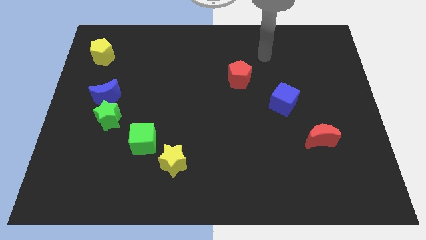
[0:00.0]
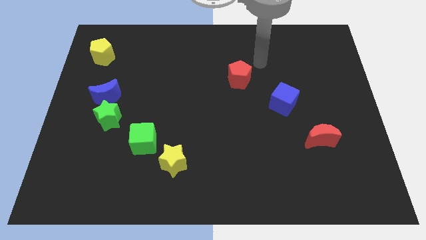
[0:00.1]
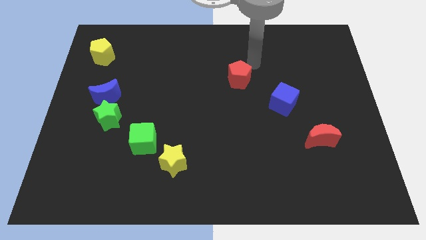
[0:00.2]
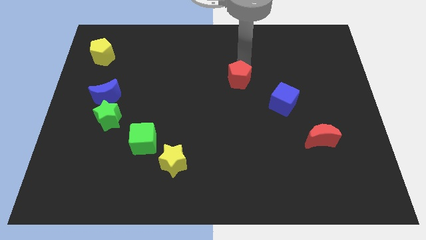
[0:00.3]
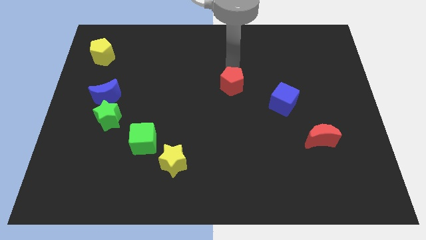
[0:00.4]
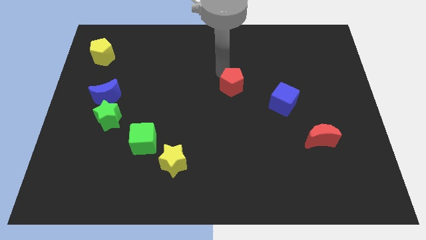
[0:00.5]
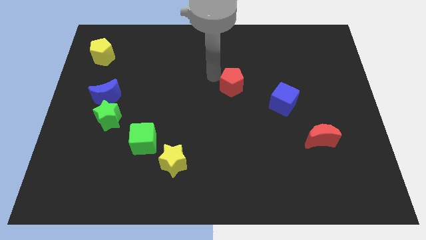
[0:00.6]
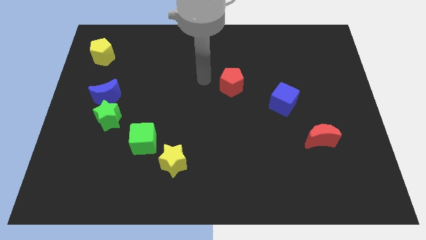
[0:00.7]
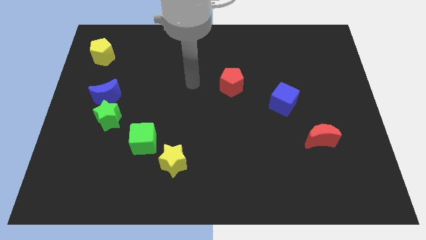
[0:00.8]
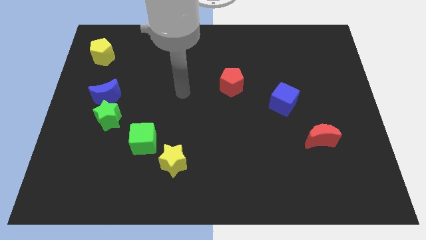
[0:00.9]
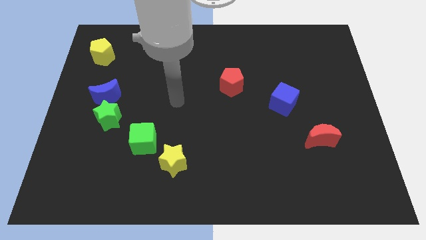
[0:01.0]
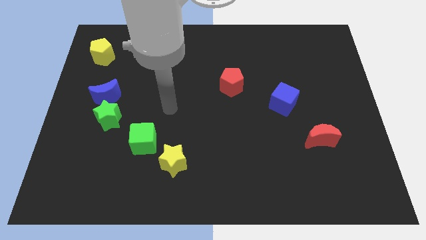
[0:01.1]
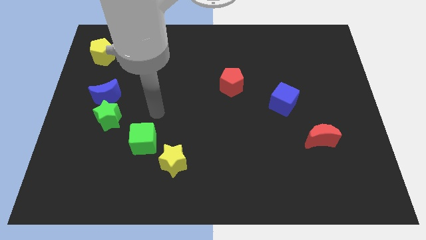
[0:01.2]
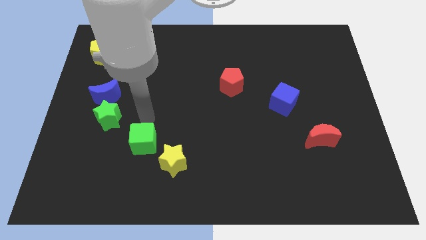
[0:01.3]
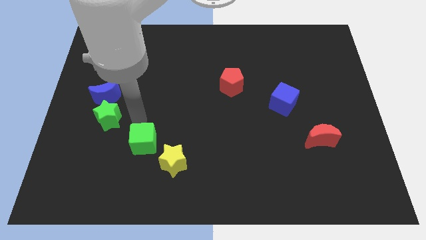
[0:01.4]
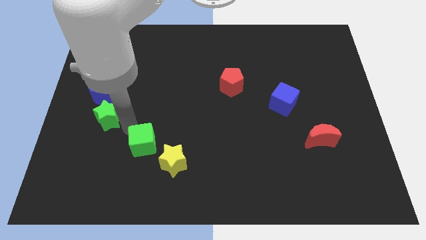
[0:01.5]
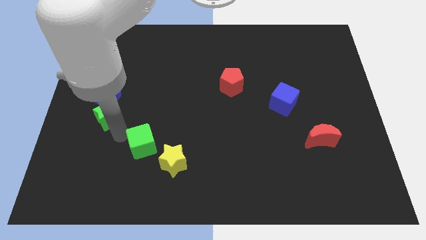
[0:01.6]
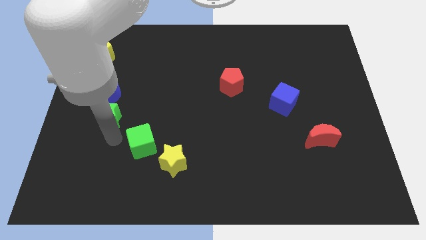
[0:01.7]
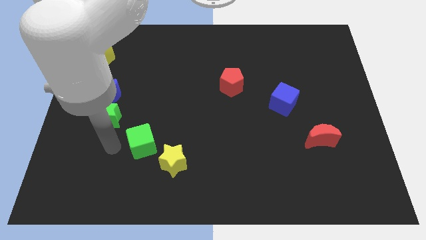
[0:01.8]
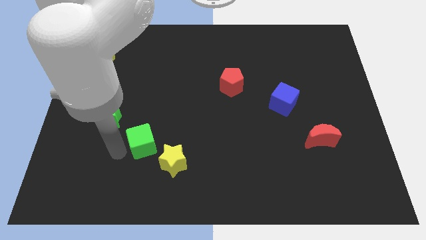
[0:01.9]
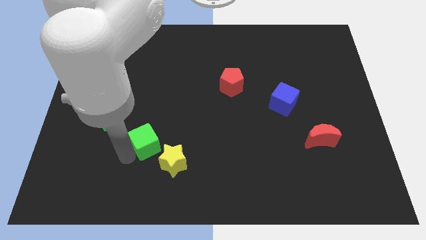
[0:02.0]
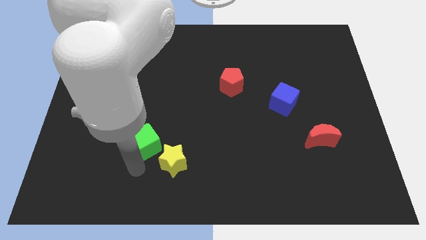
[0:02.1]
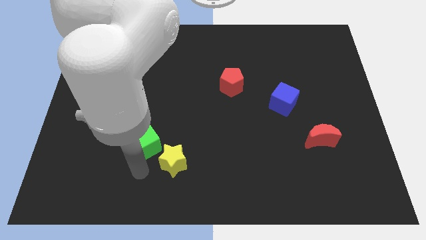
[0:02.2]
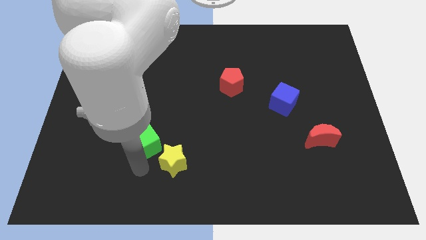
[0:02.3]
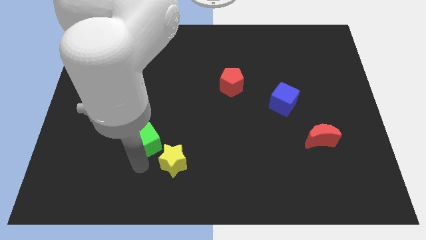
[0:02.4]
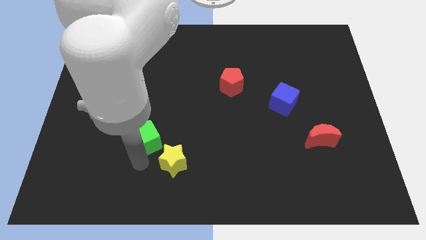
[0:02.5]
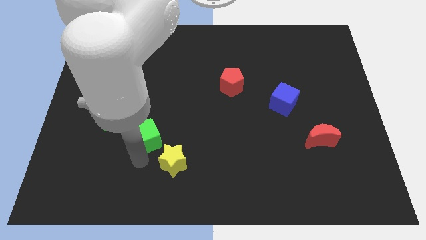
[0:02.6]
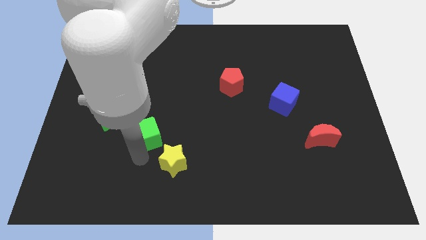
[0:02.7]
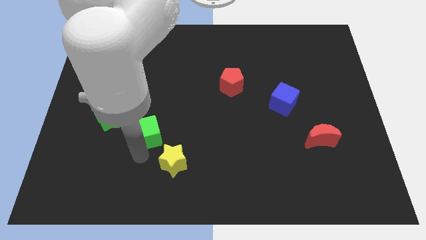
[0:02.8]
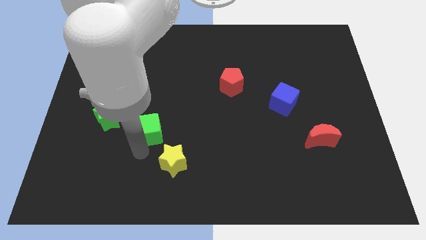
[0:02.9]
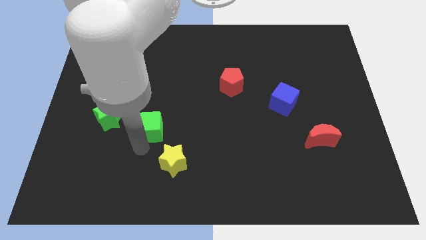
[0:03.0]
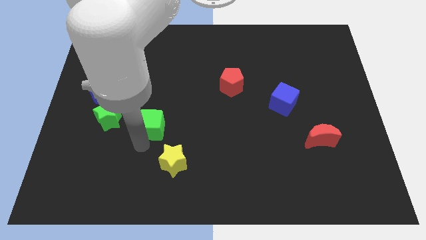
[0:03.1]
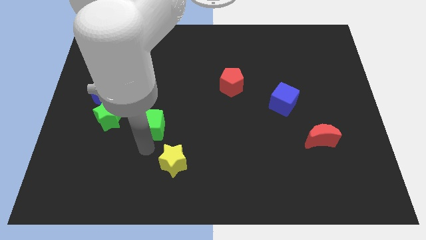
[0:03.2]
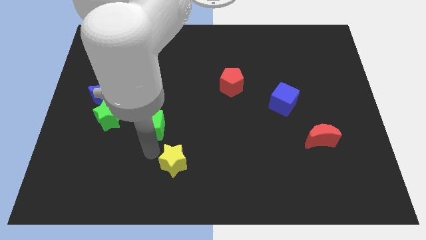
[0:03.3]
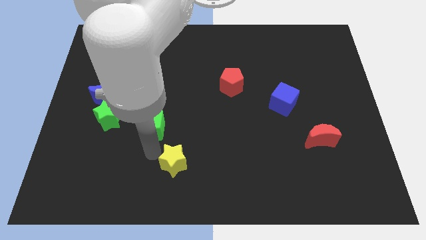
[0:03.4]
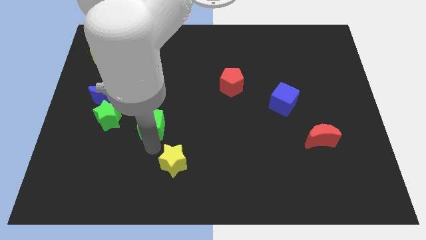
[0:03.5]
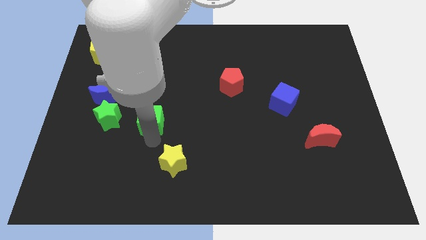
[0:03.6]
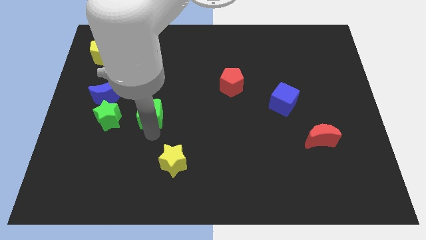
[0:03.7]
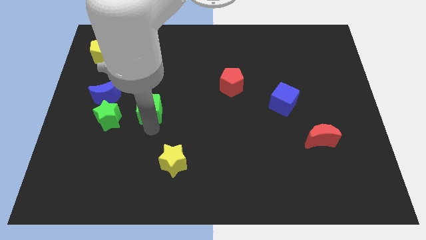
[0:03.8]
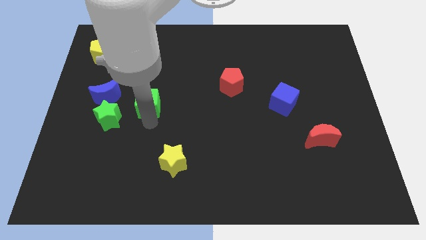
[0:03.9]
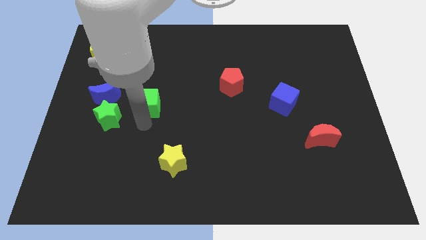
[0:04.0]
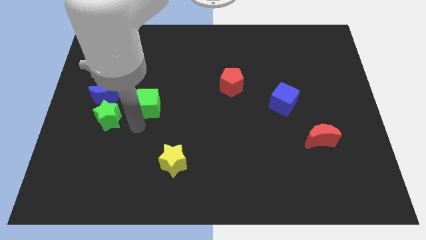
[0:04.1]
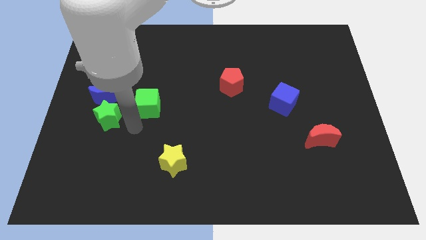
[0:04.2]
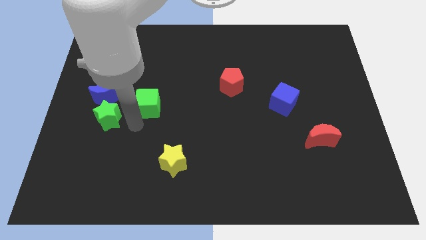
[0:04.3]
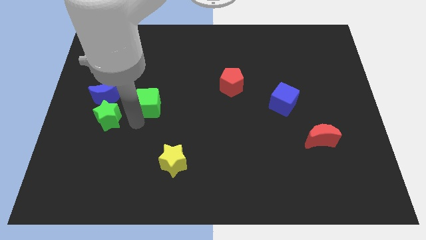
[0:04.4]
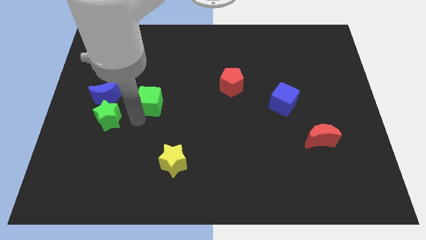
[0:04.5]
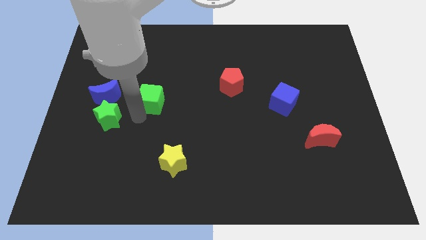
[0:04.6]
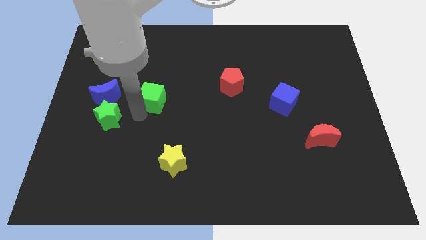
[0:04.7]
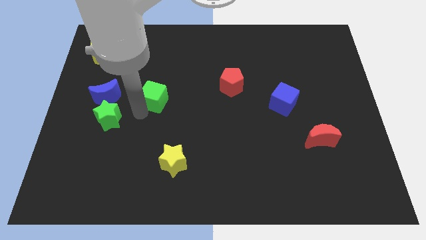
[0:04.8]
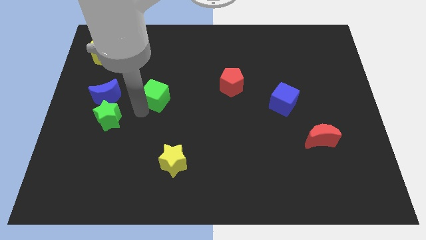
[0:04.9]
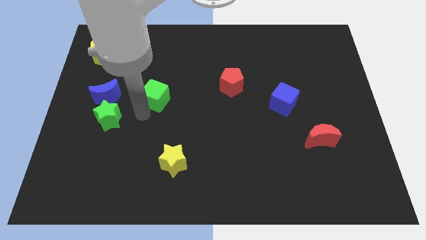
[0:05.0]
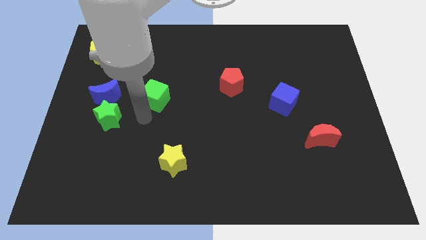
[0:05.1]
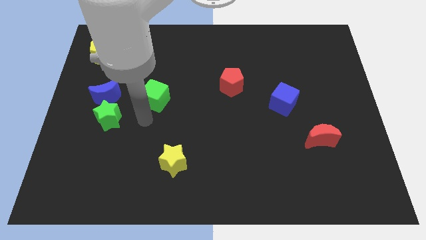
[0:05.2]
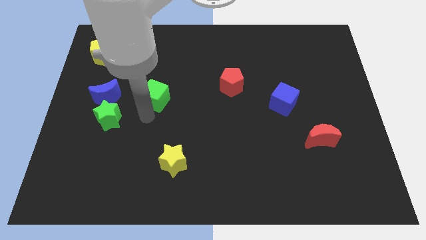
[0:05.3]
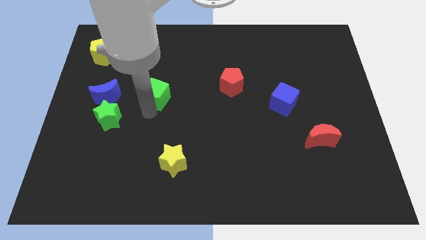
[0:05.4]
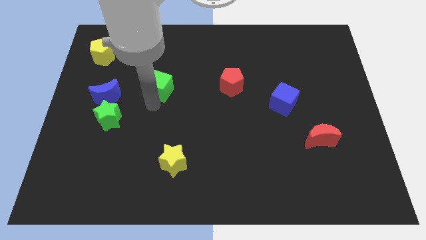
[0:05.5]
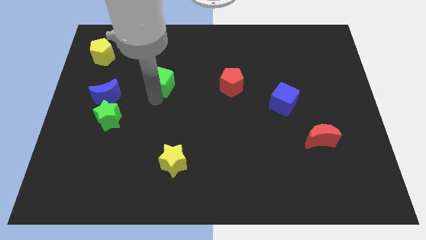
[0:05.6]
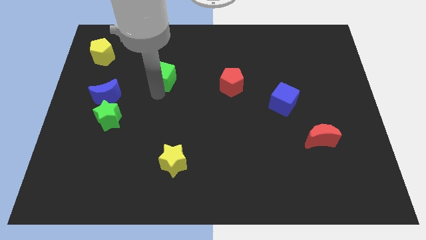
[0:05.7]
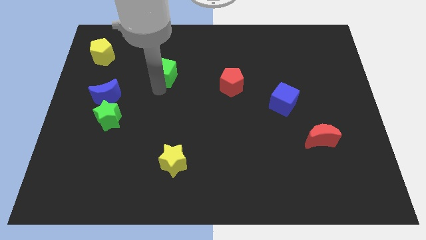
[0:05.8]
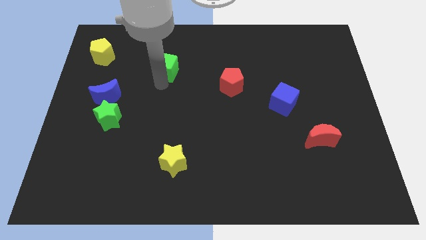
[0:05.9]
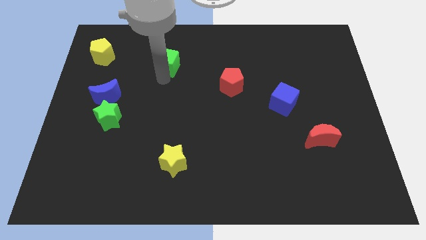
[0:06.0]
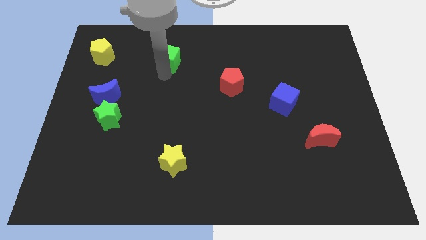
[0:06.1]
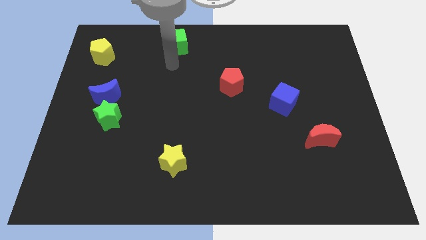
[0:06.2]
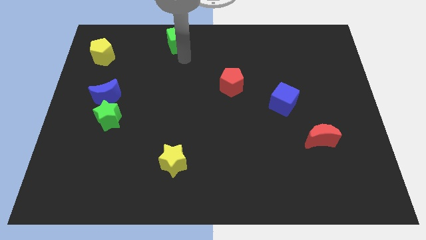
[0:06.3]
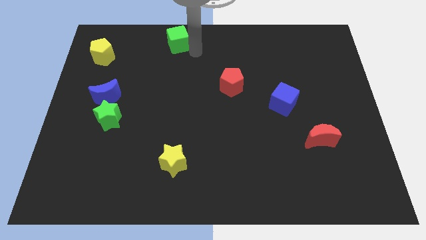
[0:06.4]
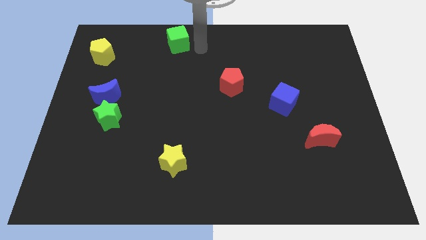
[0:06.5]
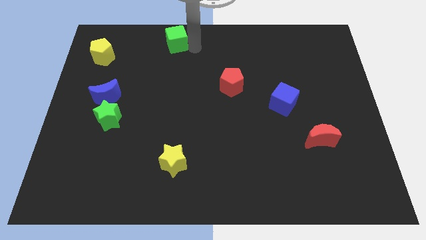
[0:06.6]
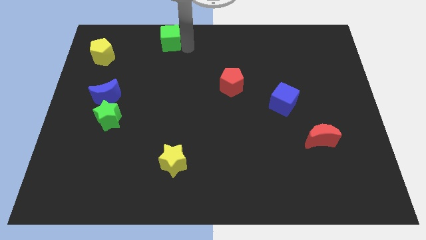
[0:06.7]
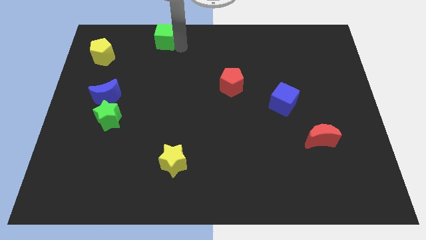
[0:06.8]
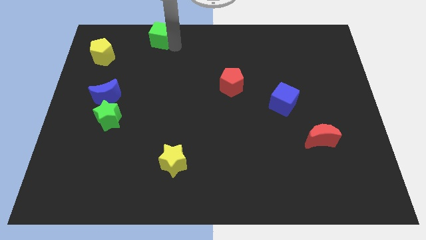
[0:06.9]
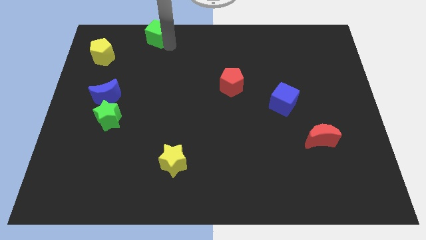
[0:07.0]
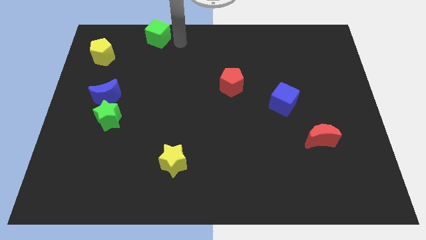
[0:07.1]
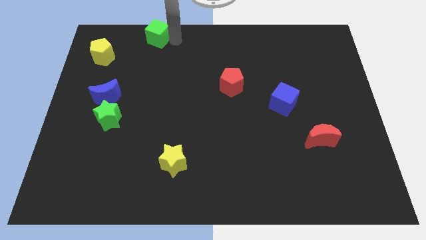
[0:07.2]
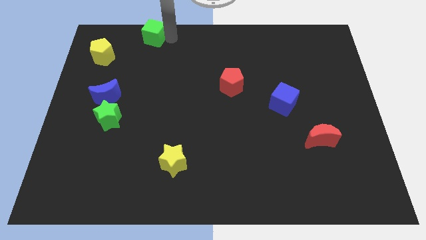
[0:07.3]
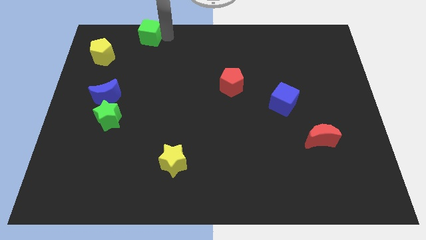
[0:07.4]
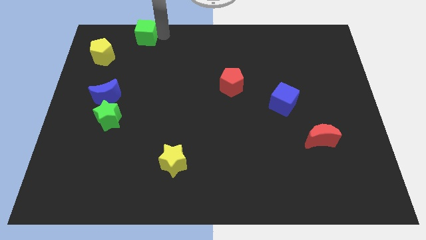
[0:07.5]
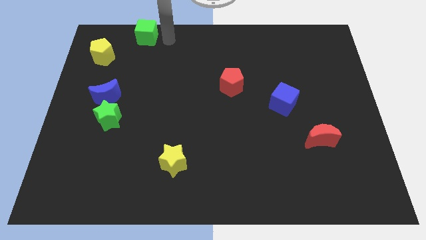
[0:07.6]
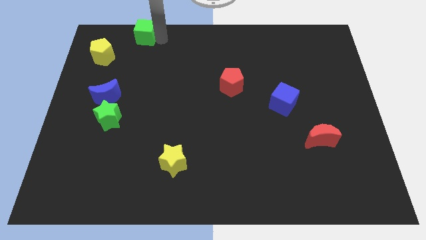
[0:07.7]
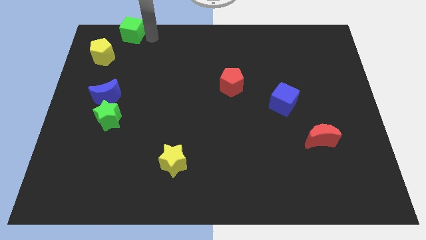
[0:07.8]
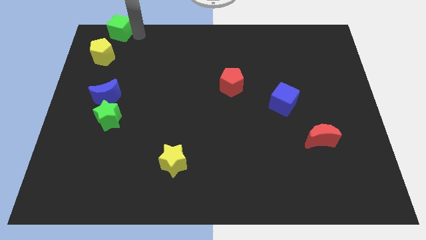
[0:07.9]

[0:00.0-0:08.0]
slide the green cube to the top left corner
